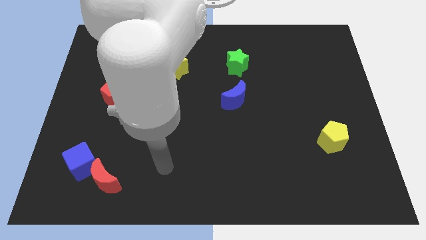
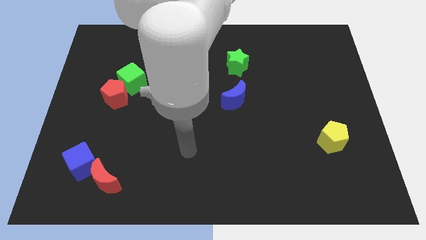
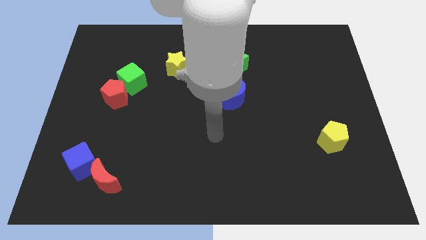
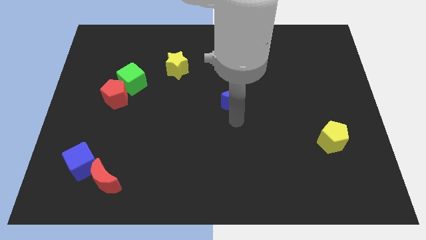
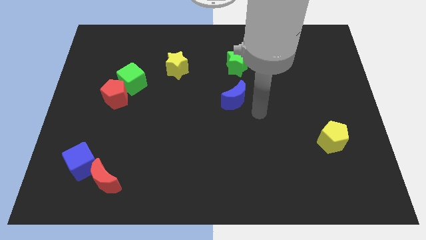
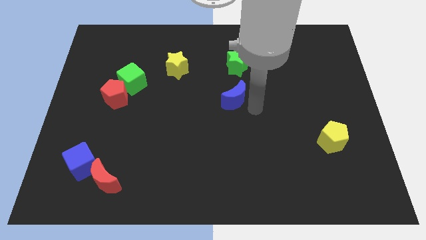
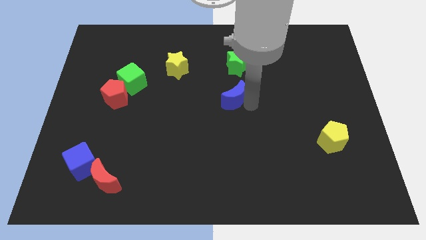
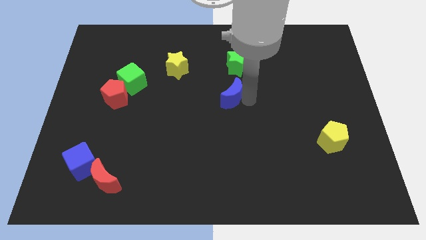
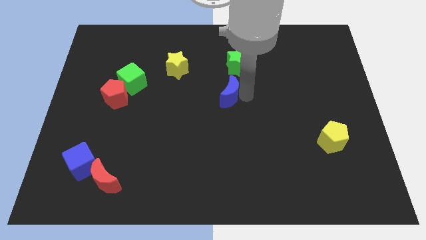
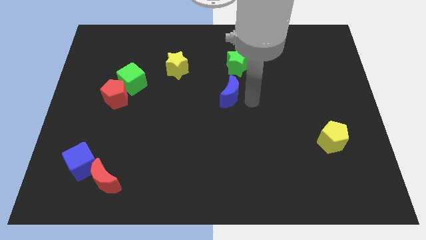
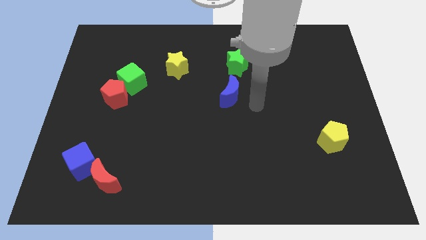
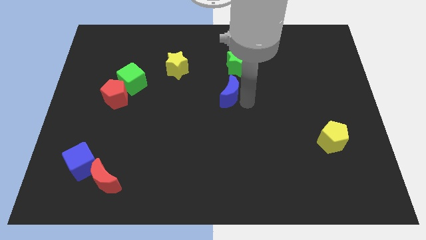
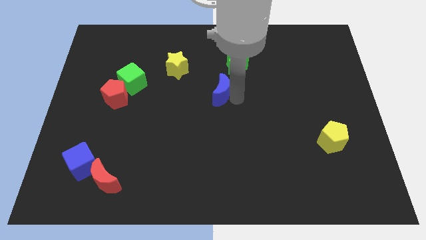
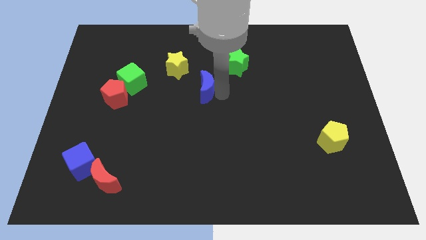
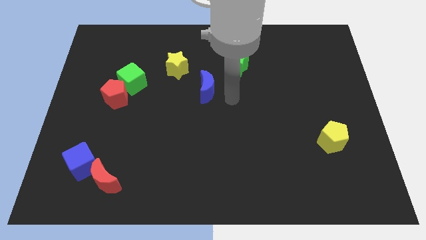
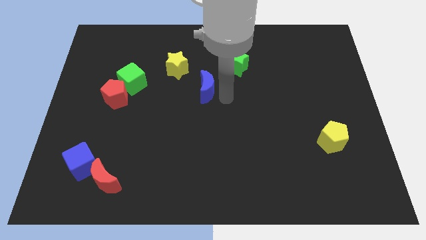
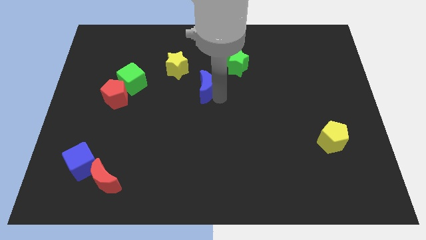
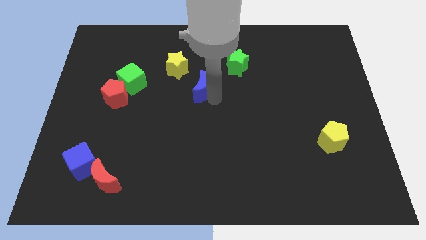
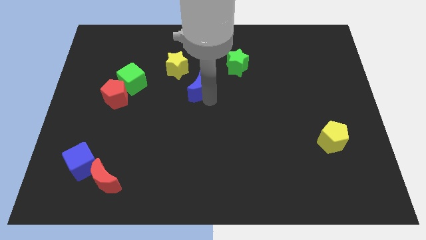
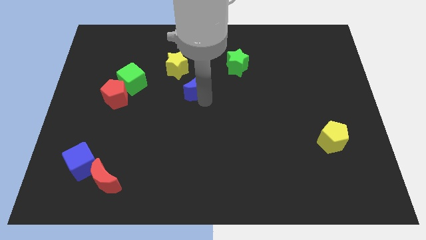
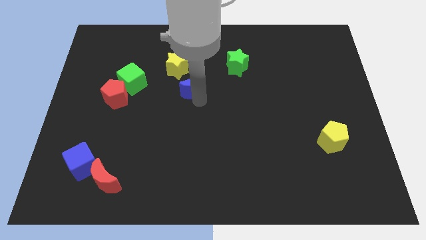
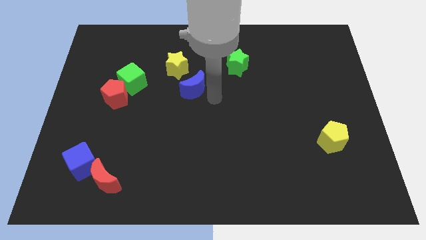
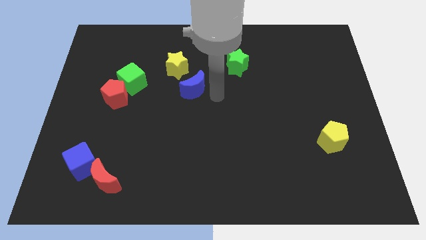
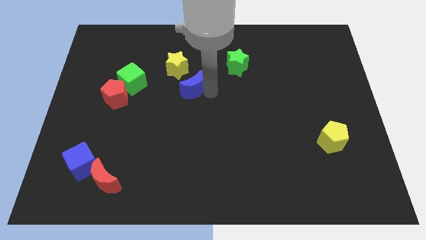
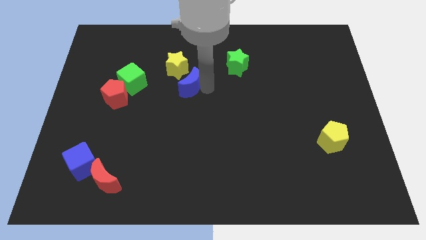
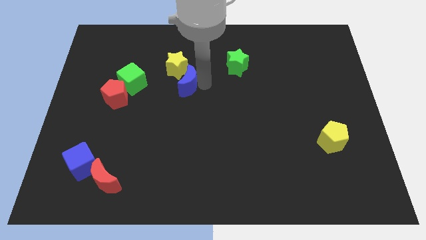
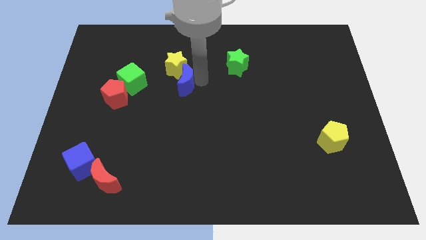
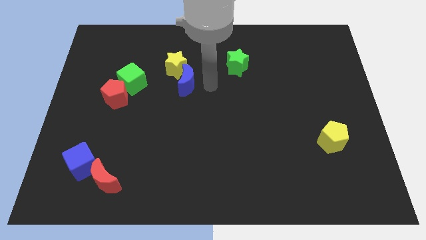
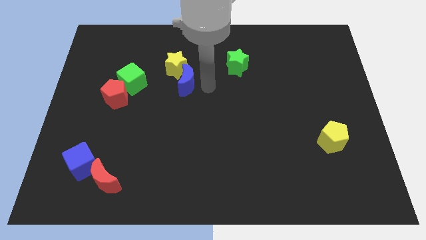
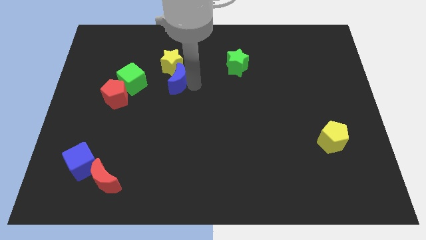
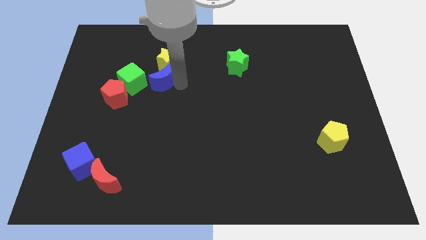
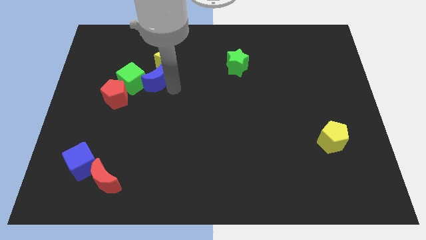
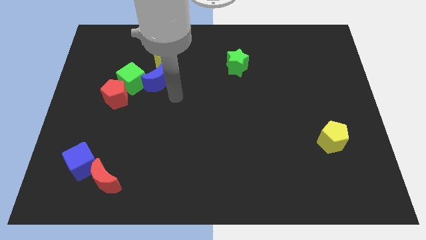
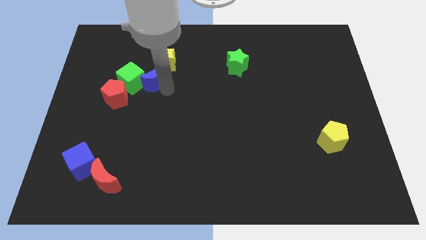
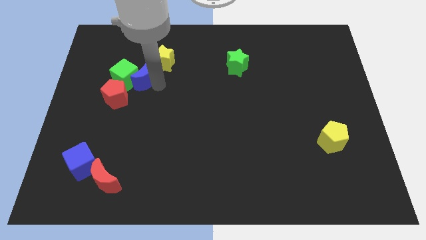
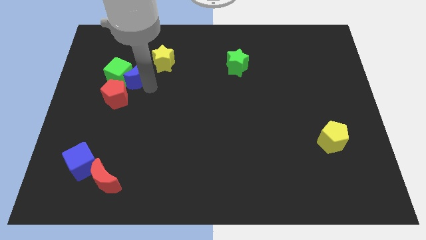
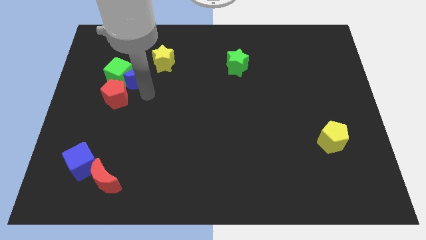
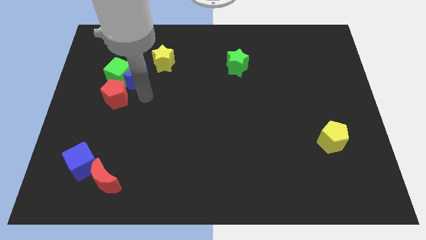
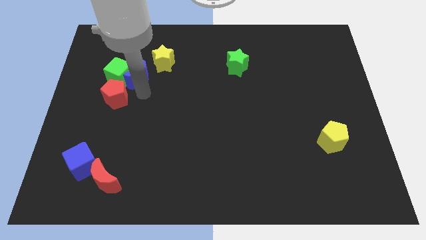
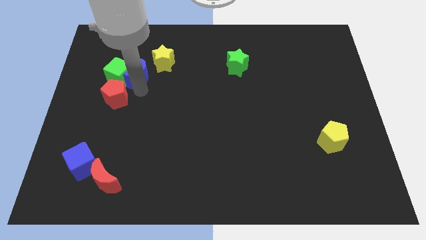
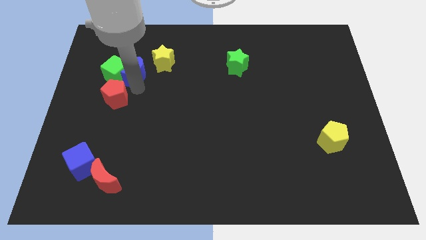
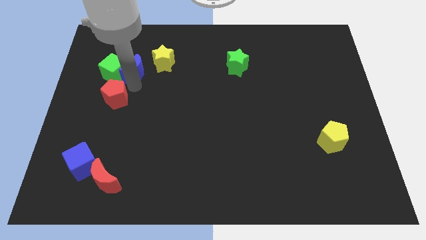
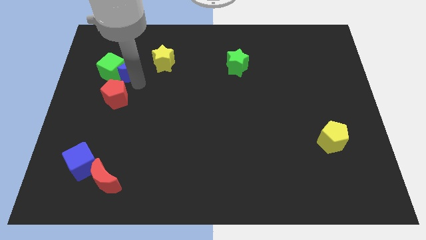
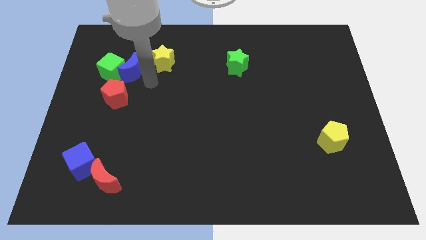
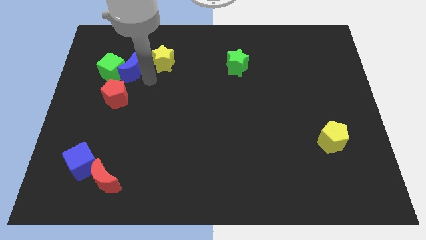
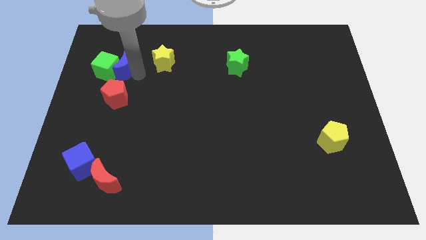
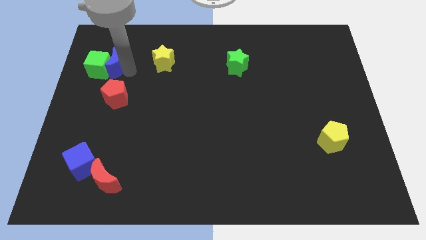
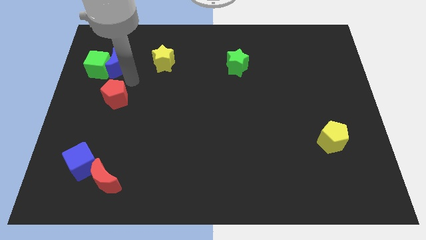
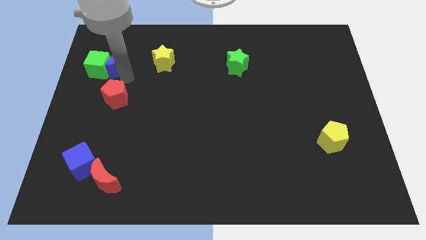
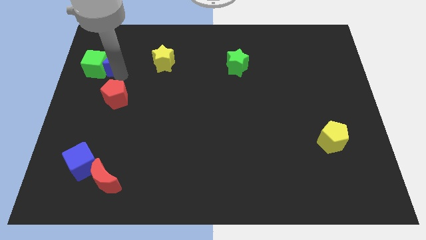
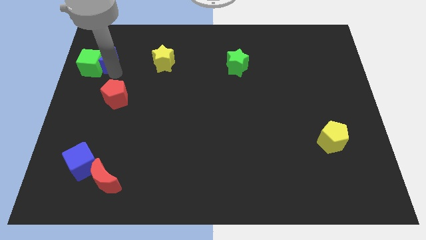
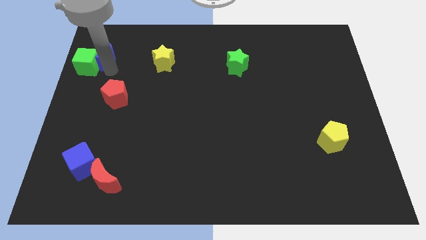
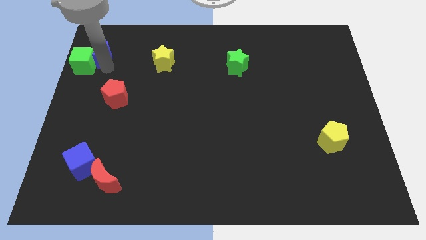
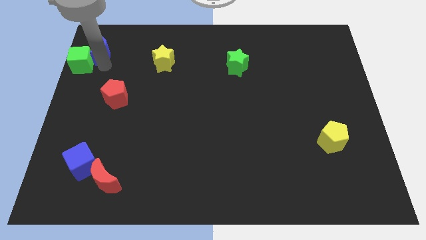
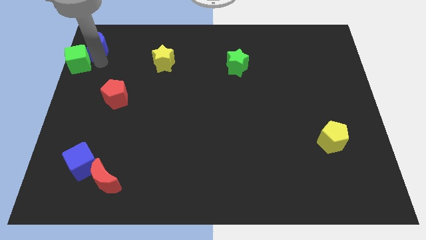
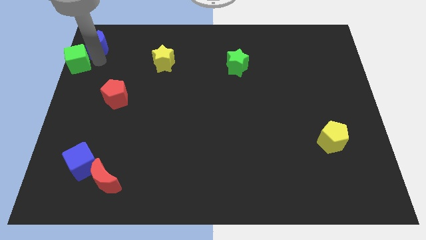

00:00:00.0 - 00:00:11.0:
push the blue moon to the top left of the board
